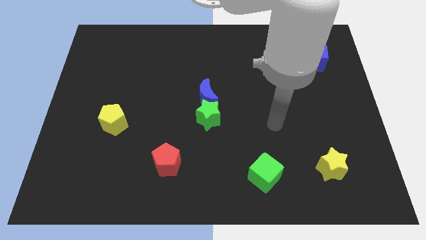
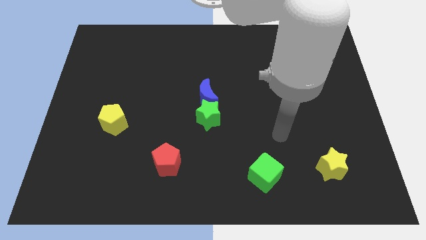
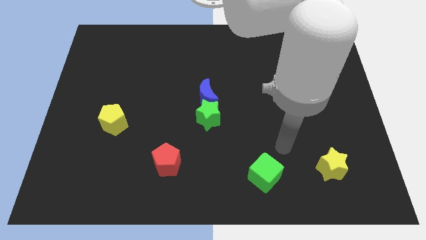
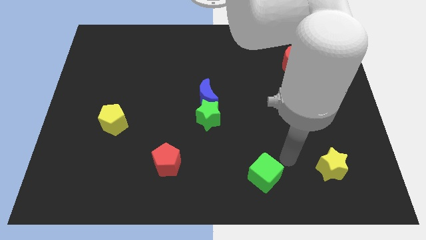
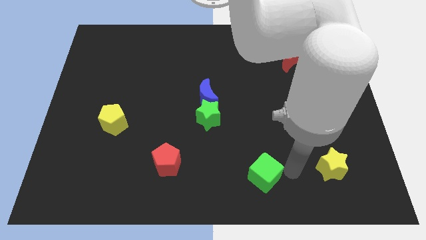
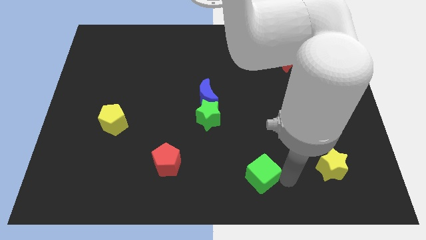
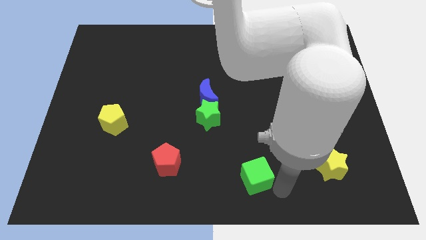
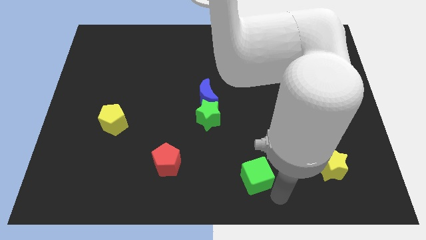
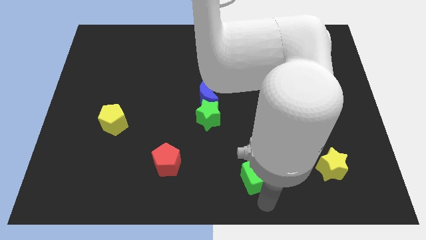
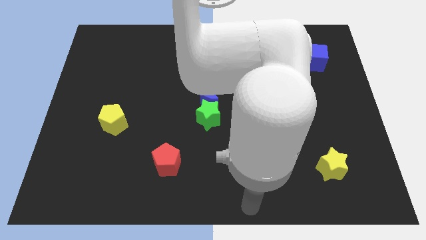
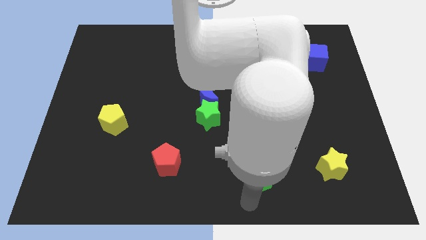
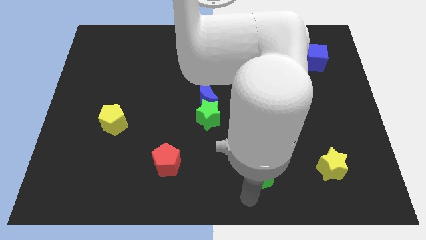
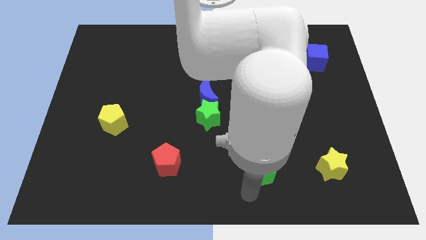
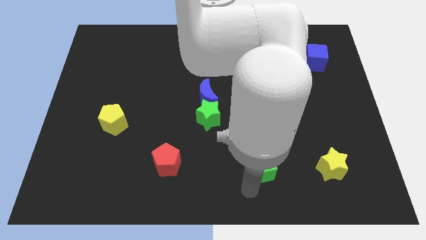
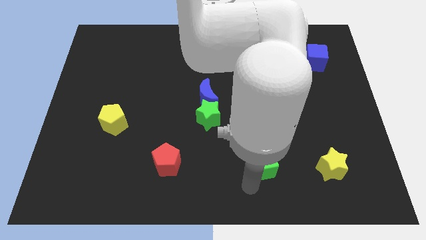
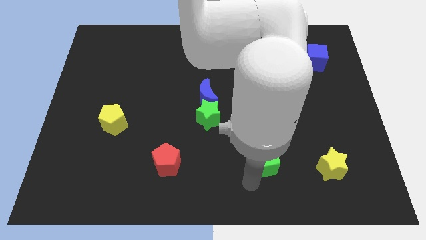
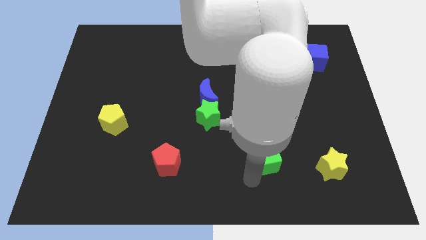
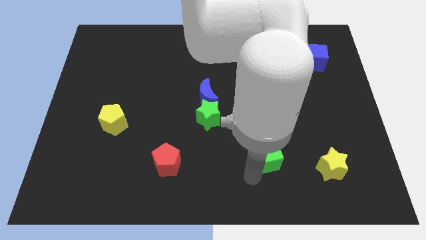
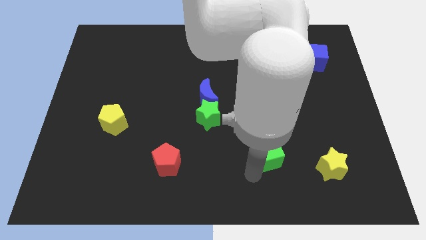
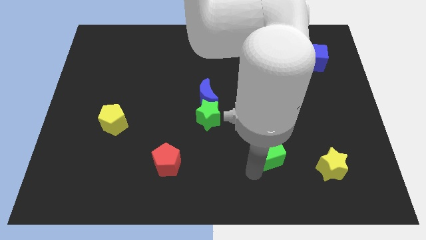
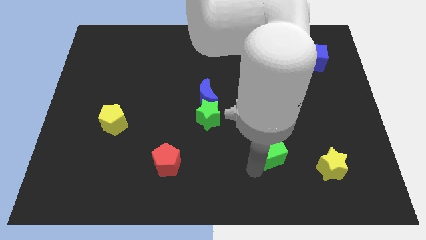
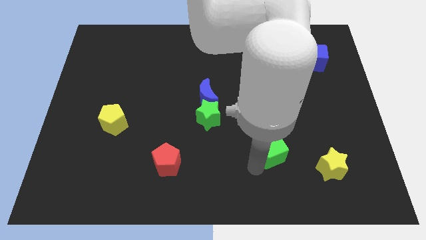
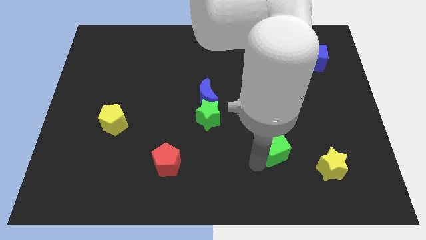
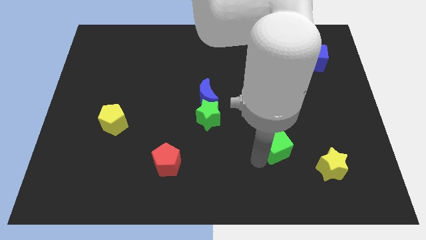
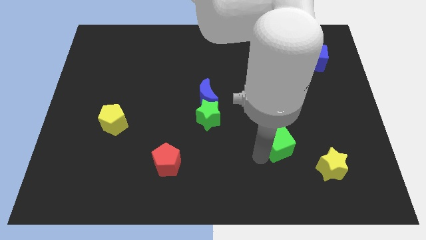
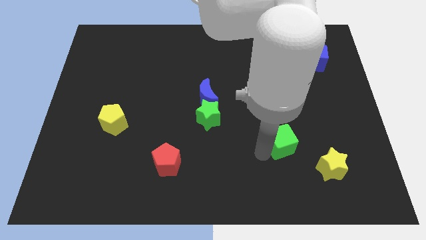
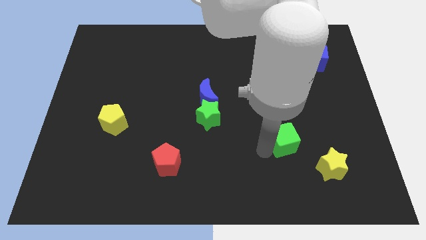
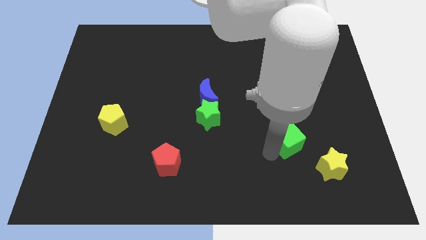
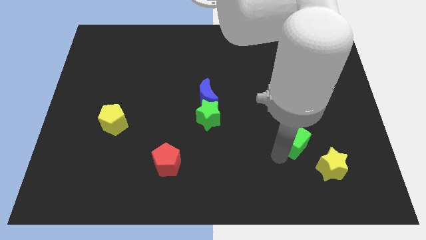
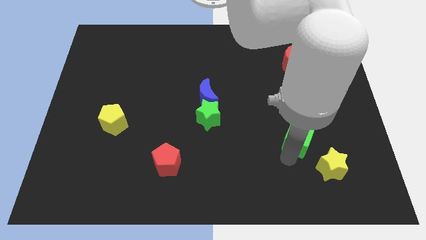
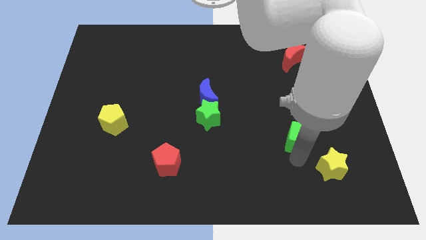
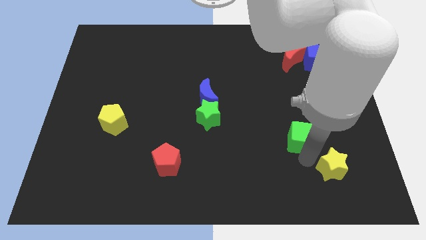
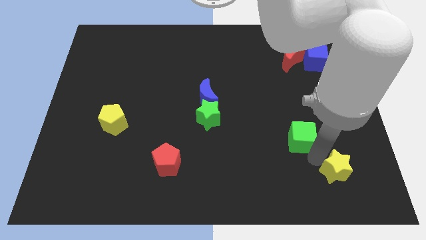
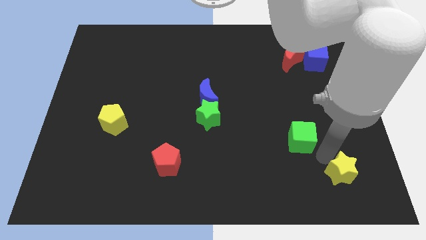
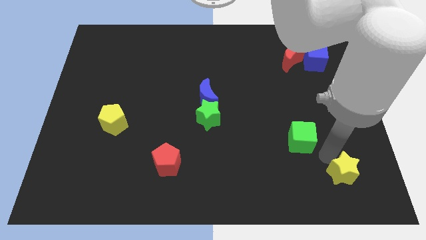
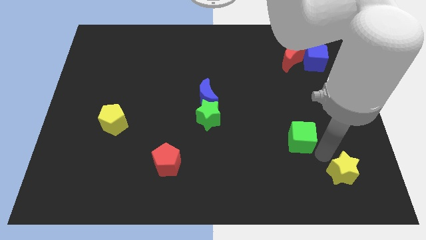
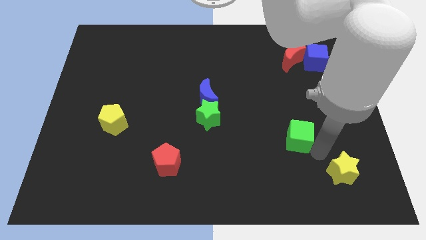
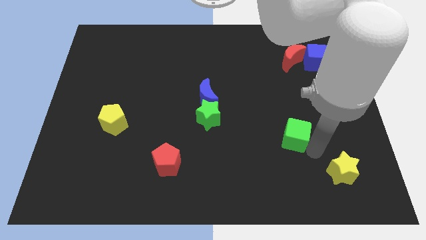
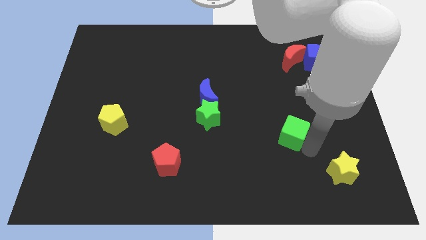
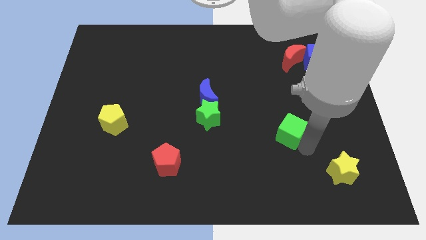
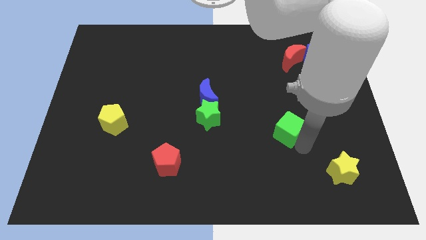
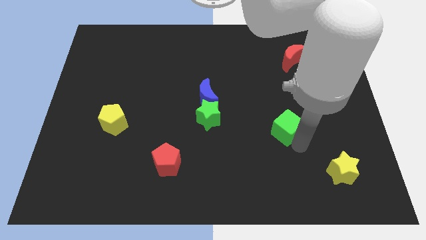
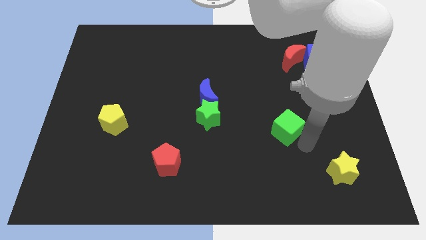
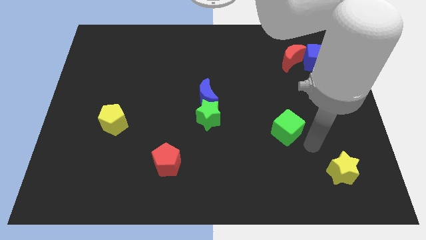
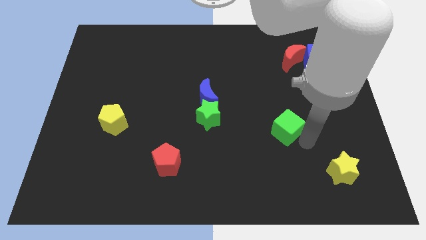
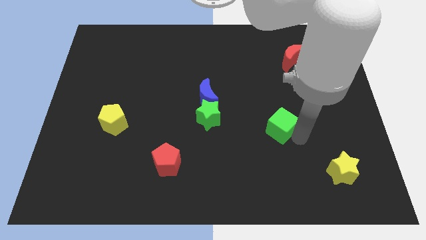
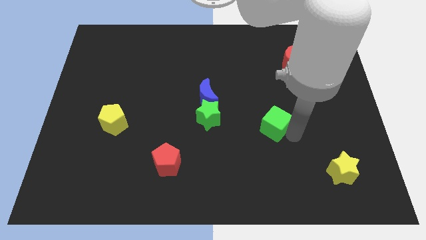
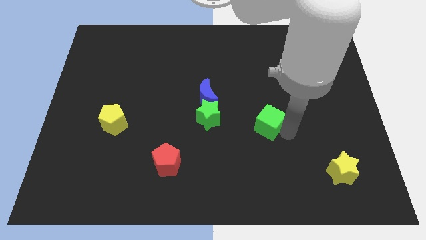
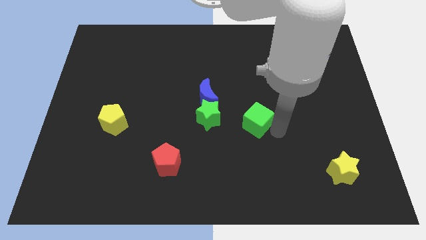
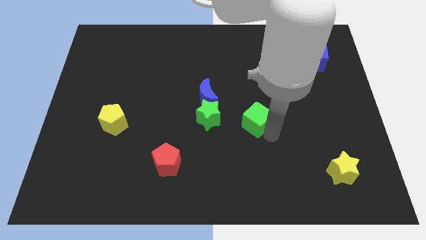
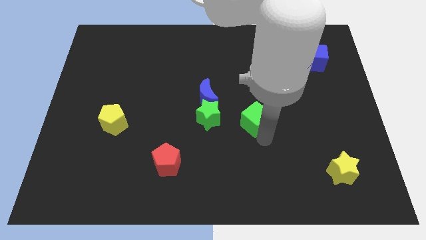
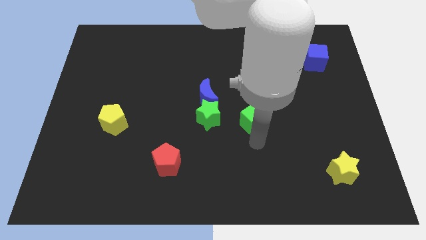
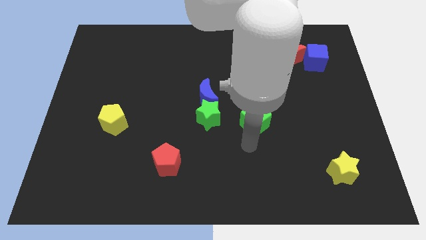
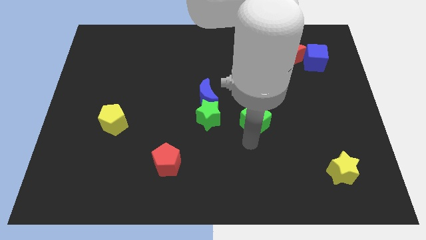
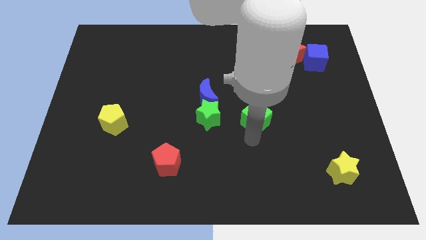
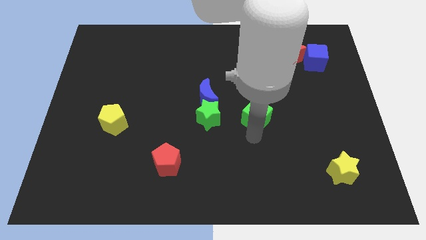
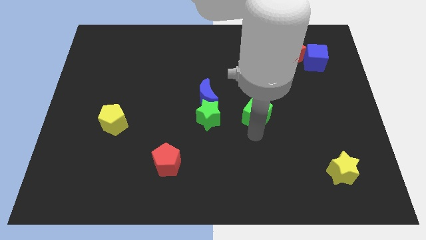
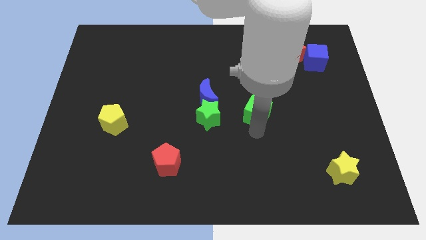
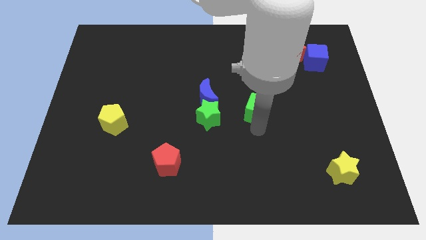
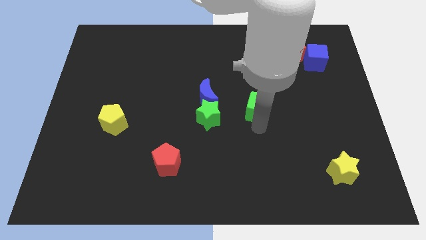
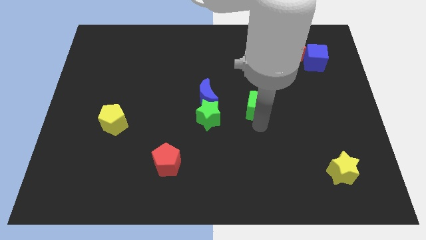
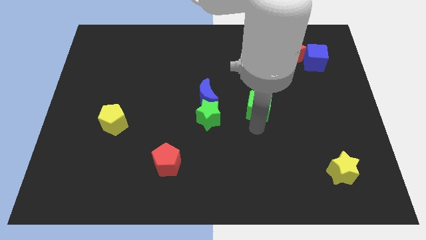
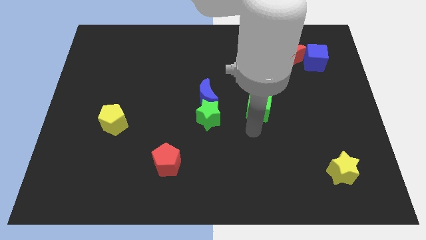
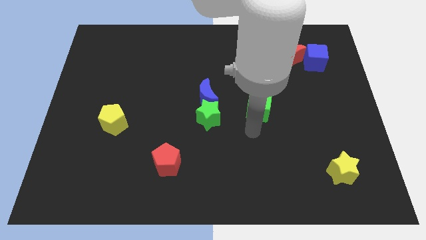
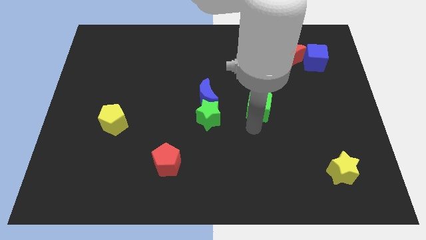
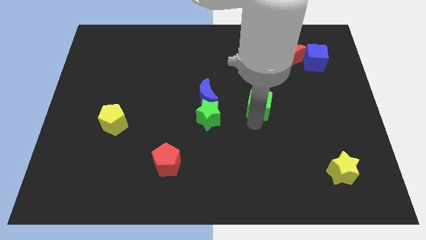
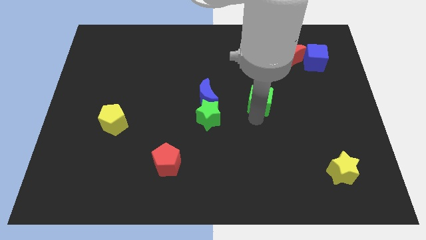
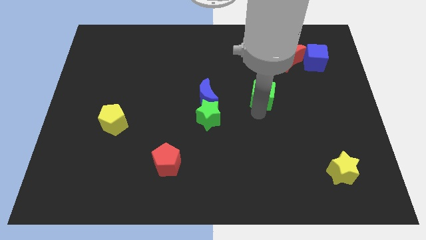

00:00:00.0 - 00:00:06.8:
slide the green cube up

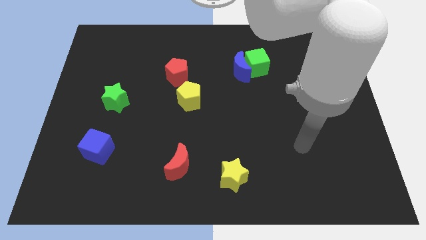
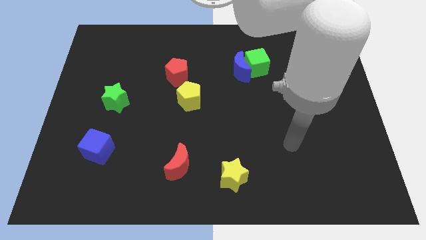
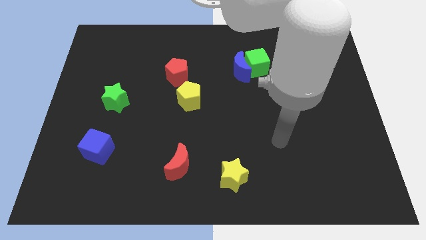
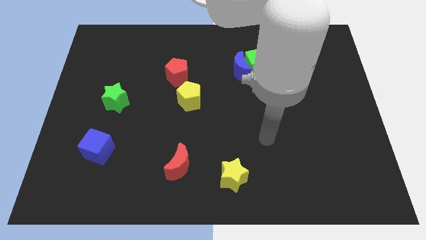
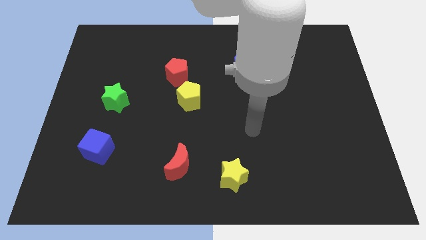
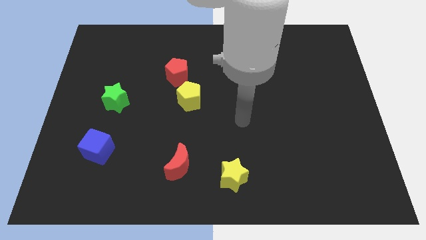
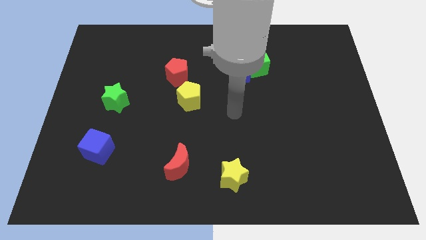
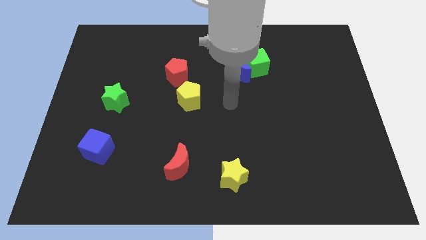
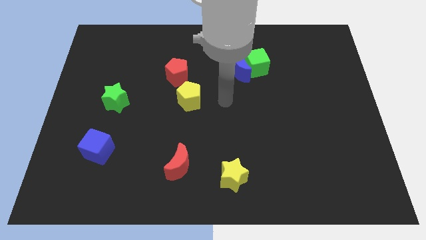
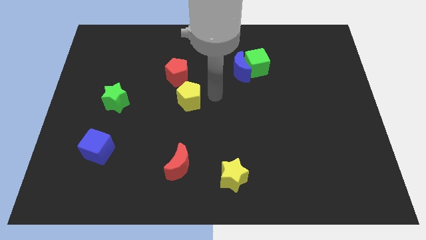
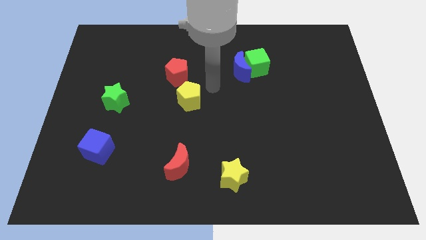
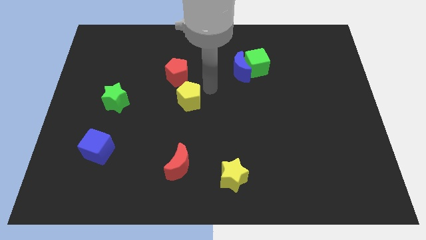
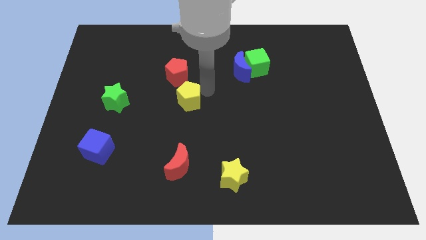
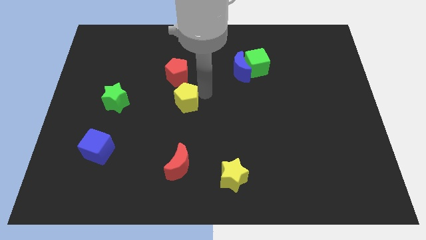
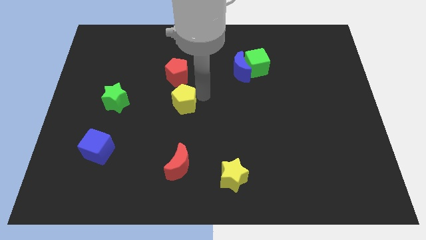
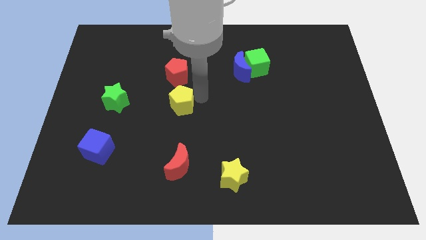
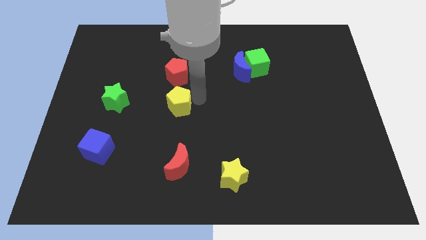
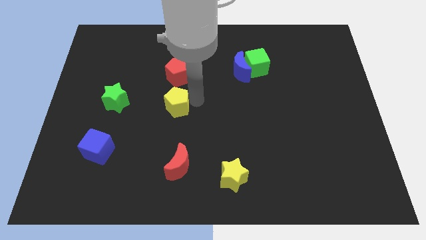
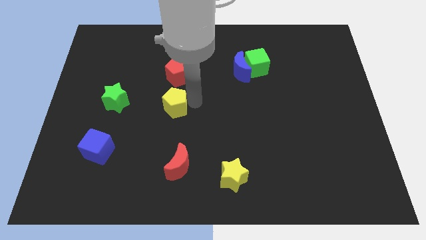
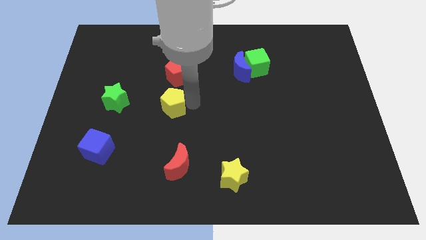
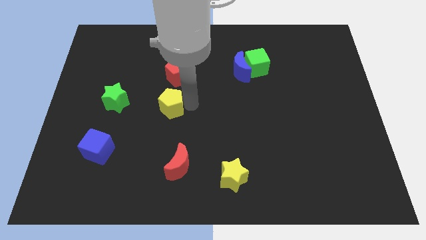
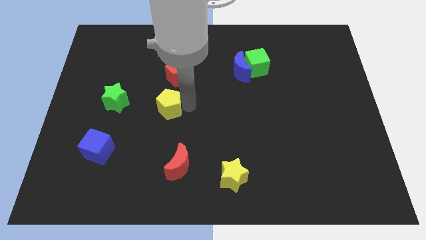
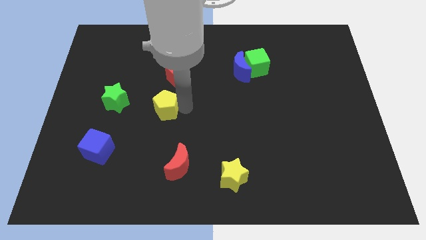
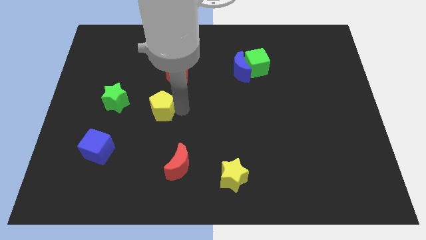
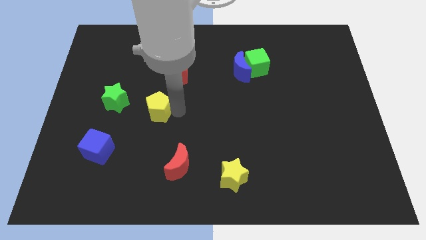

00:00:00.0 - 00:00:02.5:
move the yellow pentagon a little down and left diagonally
